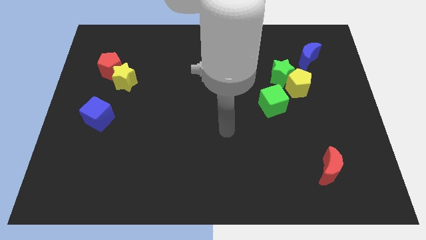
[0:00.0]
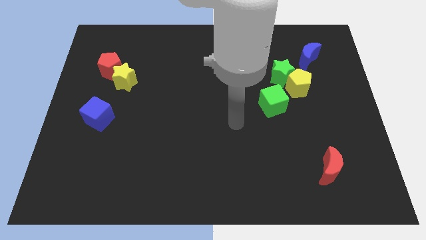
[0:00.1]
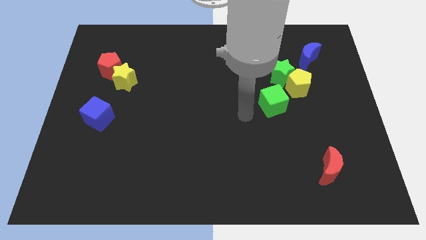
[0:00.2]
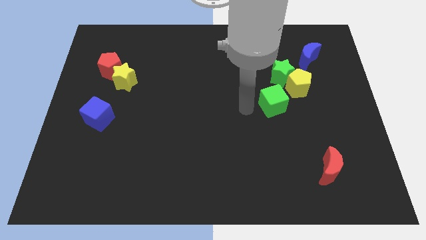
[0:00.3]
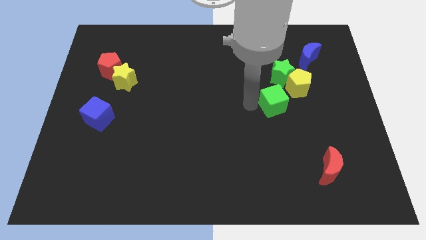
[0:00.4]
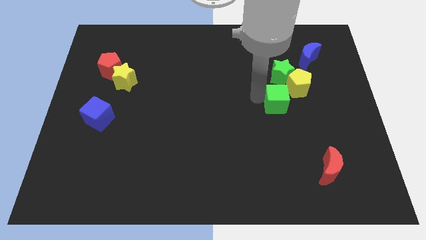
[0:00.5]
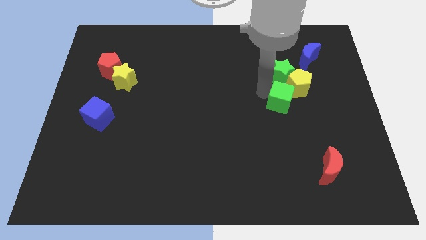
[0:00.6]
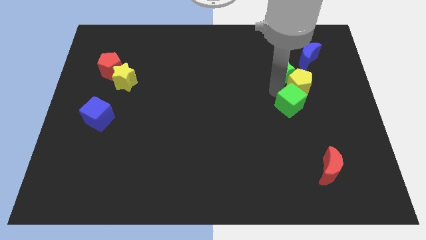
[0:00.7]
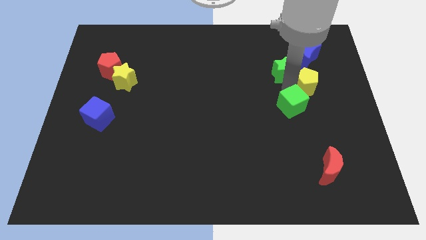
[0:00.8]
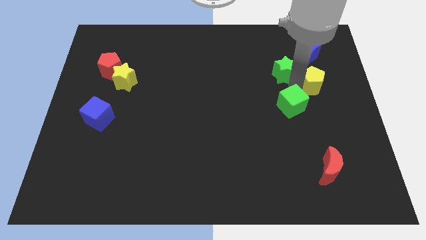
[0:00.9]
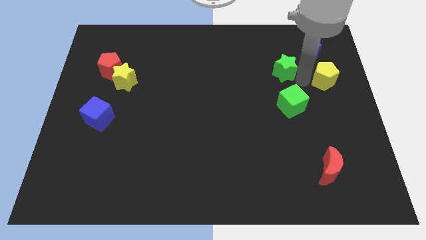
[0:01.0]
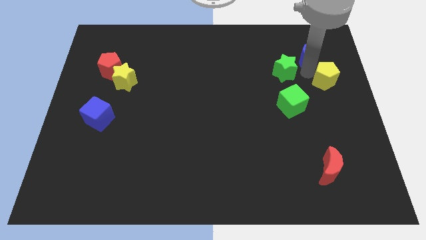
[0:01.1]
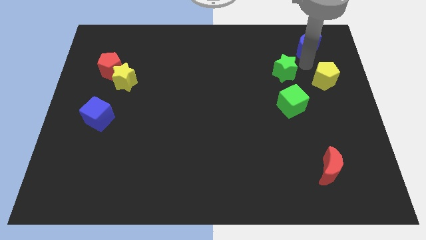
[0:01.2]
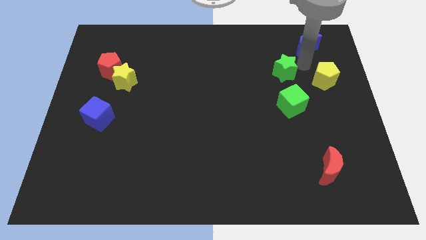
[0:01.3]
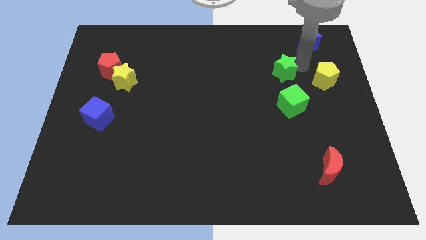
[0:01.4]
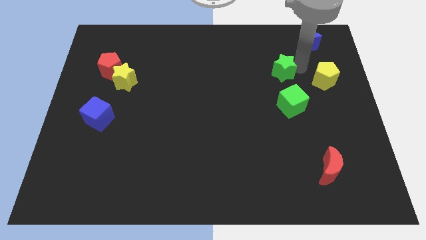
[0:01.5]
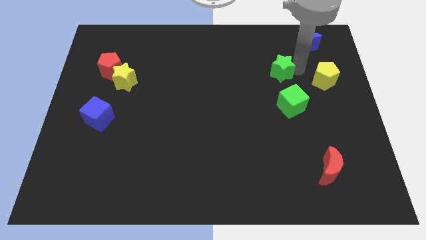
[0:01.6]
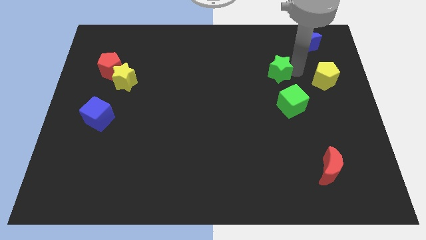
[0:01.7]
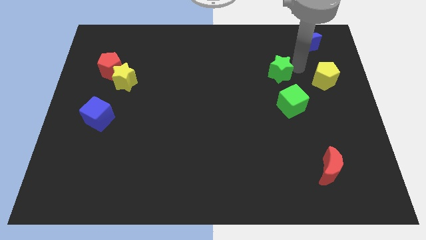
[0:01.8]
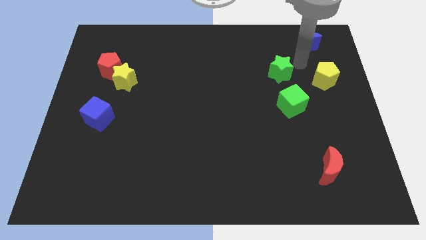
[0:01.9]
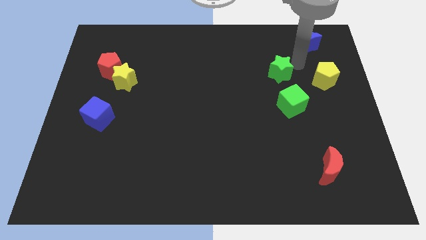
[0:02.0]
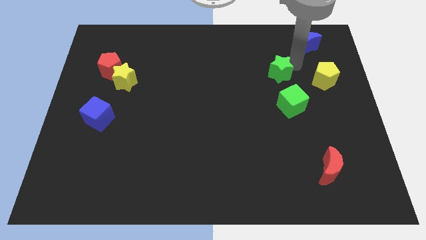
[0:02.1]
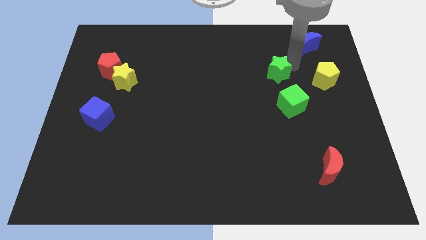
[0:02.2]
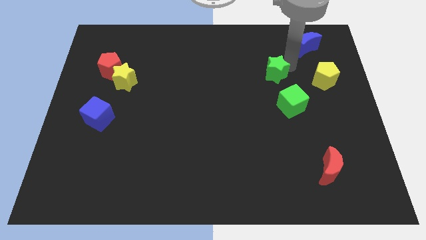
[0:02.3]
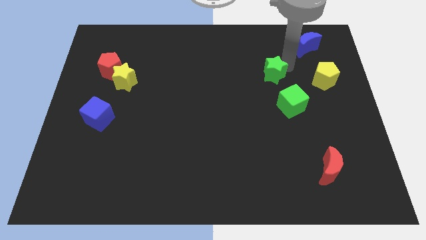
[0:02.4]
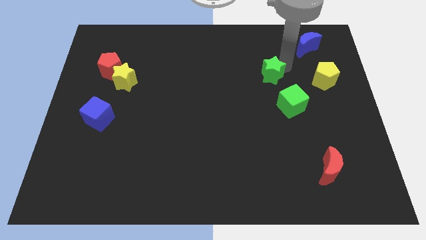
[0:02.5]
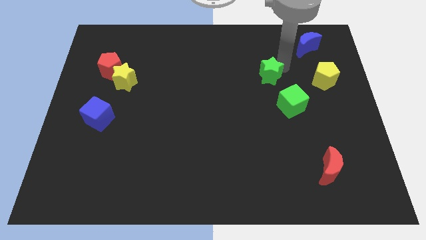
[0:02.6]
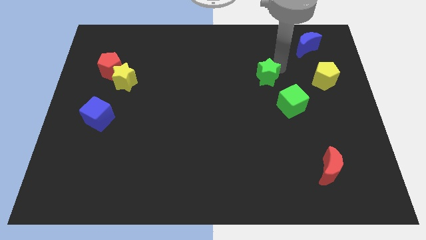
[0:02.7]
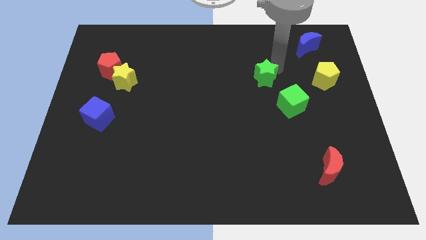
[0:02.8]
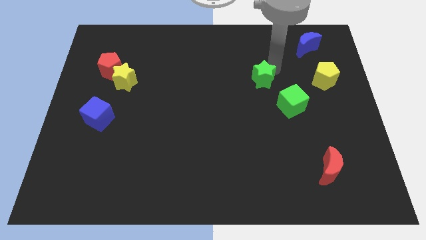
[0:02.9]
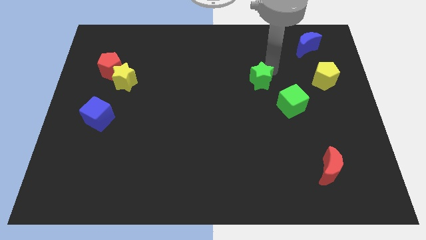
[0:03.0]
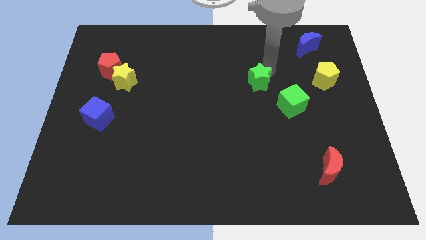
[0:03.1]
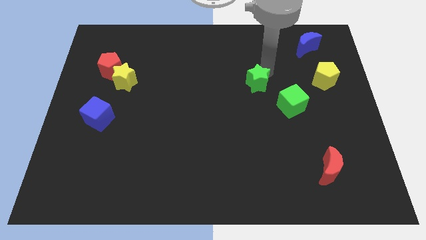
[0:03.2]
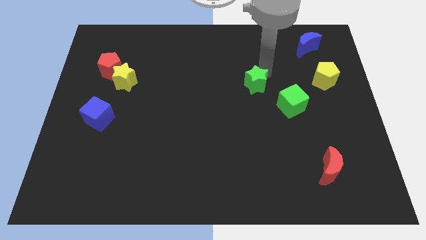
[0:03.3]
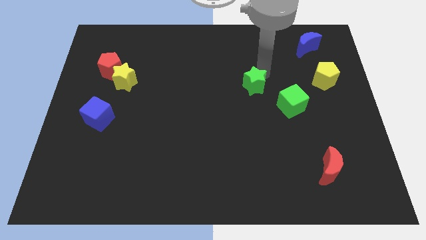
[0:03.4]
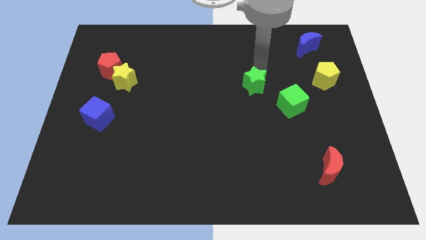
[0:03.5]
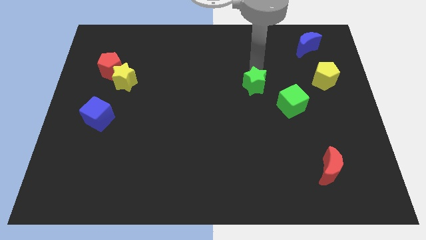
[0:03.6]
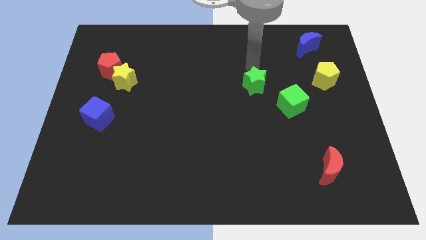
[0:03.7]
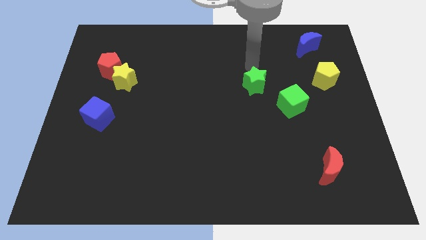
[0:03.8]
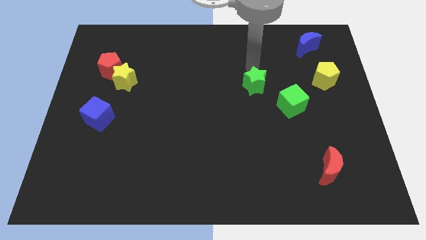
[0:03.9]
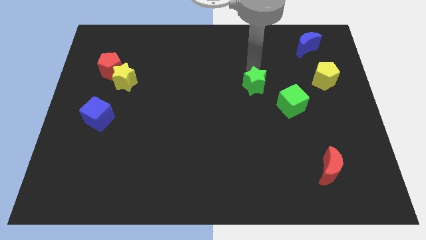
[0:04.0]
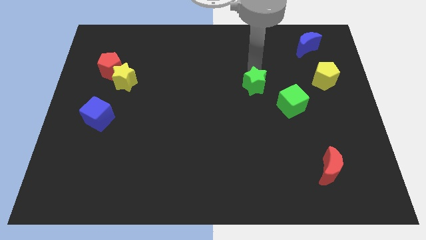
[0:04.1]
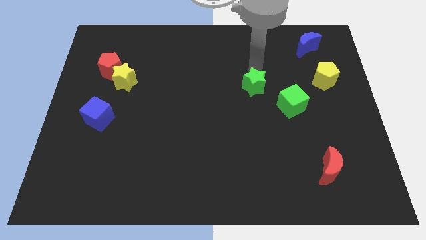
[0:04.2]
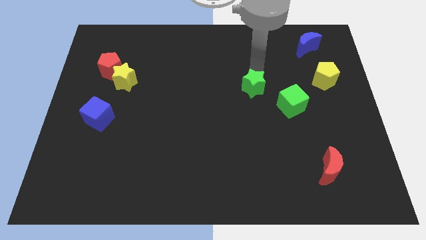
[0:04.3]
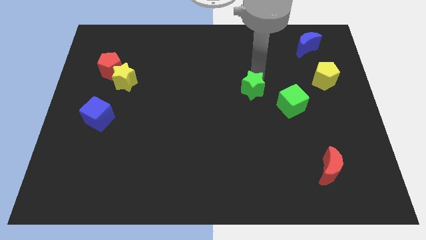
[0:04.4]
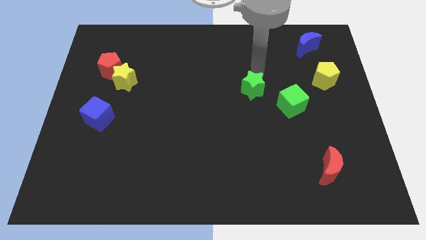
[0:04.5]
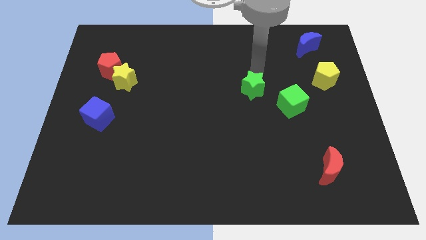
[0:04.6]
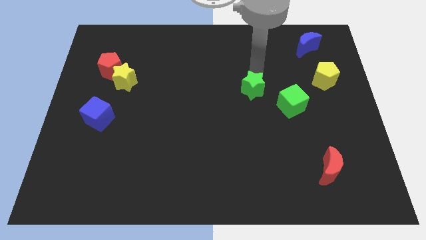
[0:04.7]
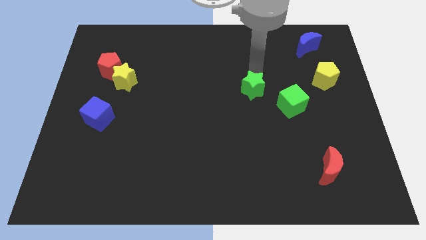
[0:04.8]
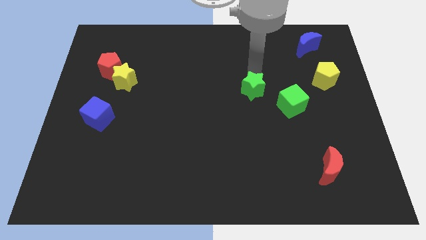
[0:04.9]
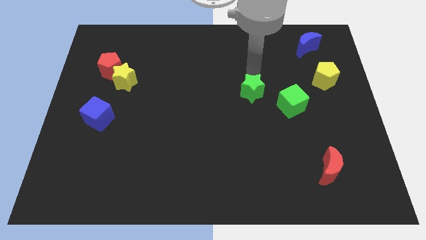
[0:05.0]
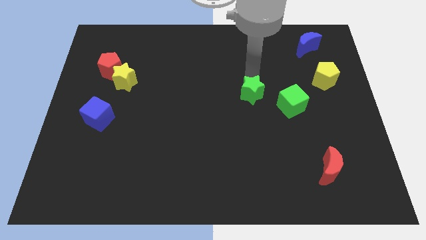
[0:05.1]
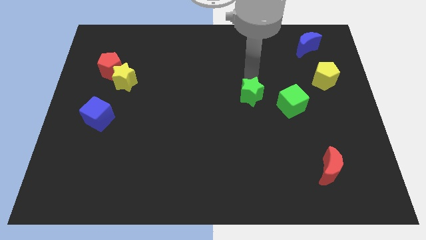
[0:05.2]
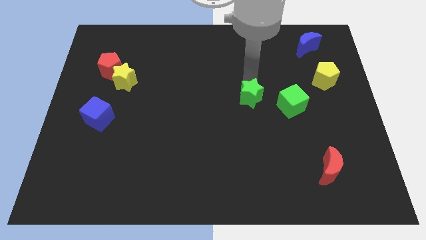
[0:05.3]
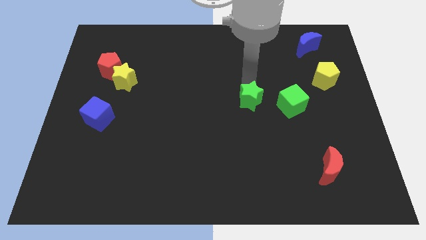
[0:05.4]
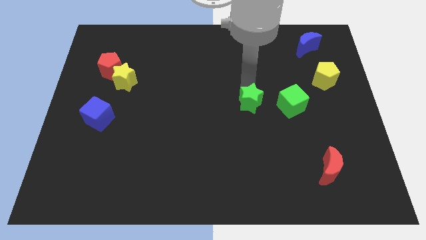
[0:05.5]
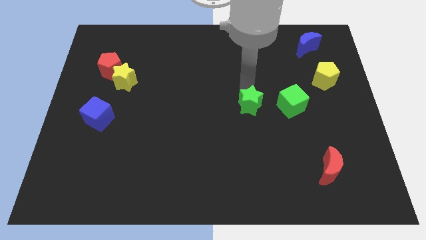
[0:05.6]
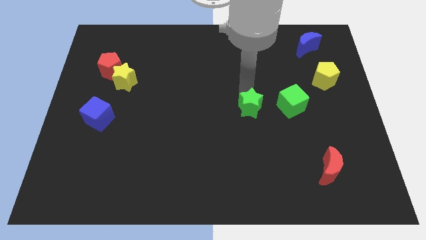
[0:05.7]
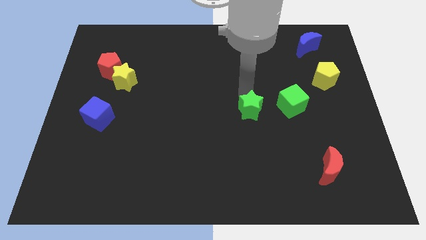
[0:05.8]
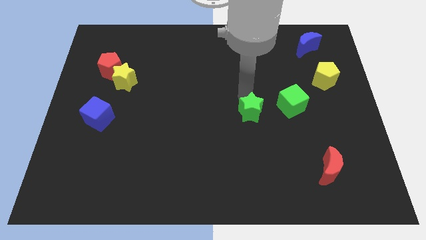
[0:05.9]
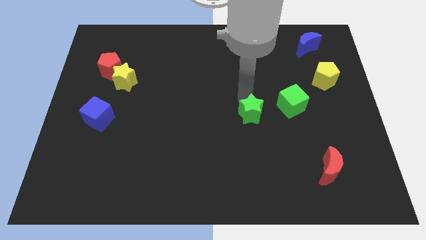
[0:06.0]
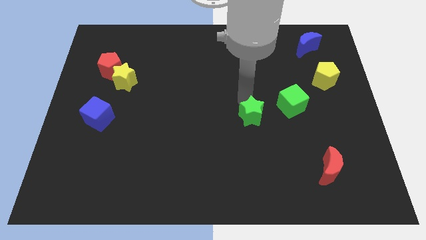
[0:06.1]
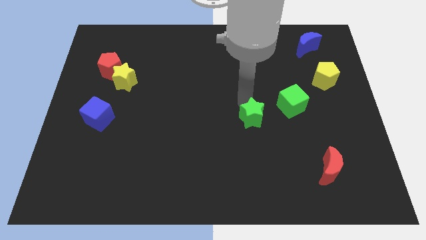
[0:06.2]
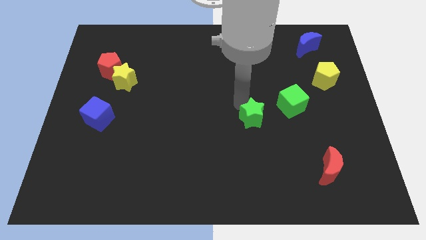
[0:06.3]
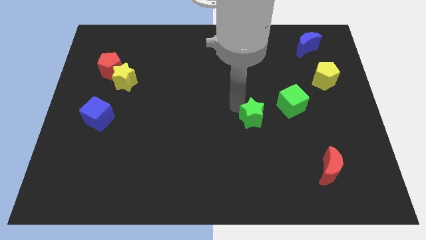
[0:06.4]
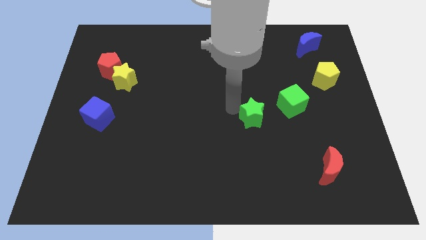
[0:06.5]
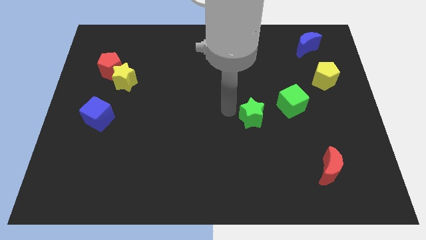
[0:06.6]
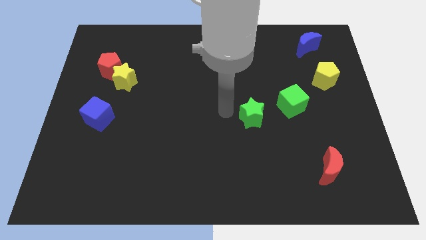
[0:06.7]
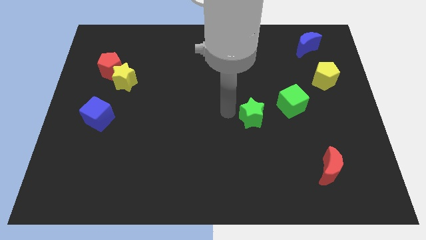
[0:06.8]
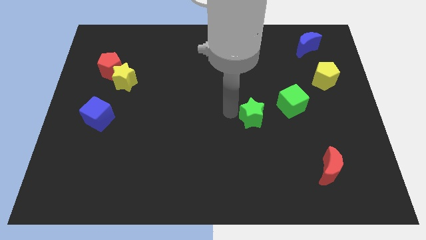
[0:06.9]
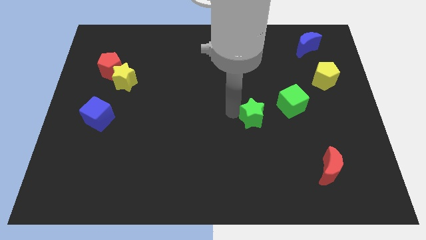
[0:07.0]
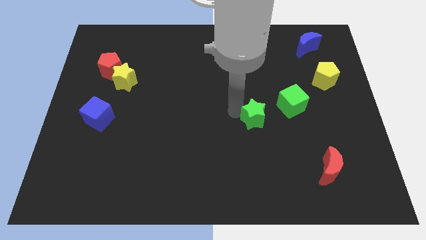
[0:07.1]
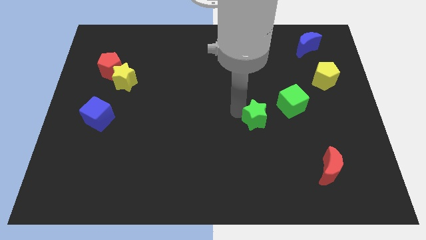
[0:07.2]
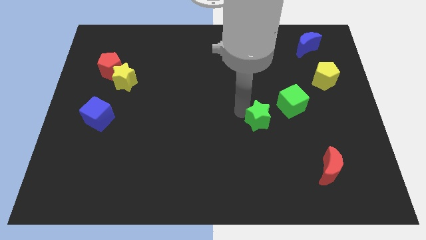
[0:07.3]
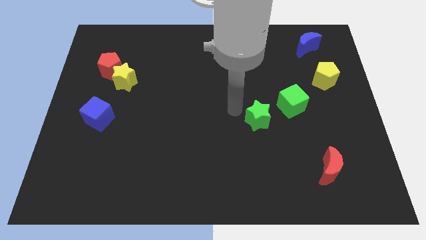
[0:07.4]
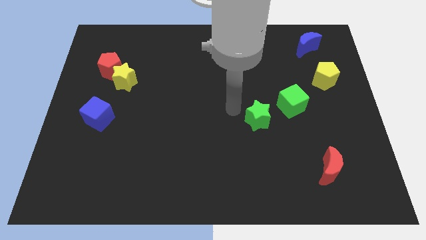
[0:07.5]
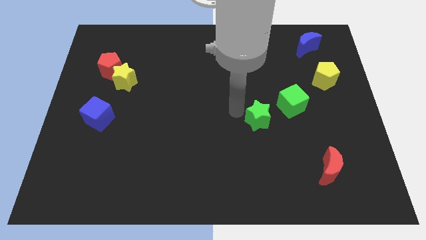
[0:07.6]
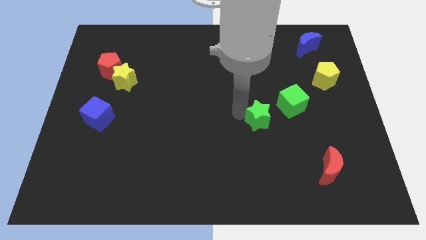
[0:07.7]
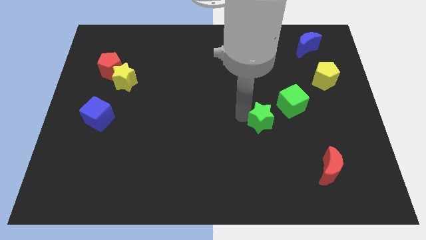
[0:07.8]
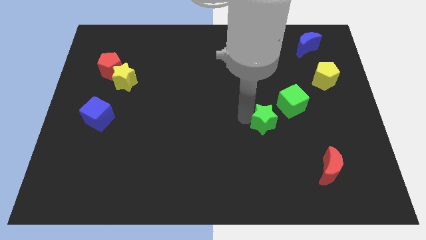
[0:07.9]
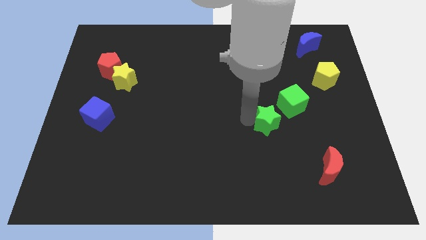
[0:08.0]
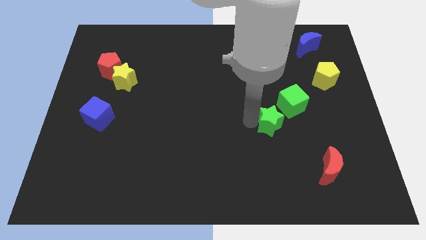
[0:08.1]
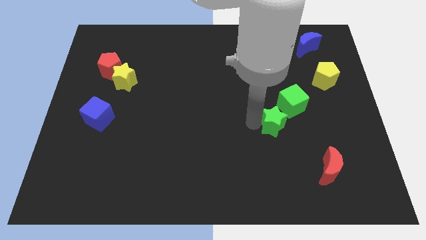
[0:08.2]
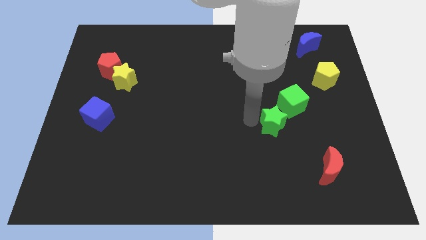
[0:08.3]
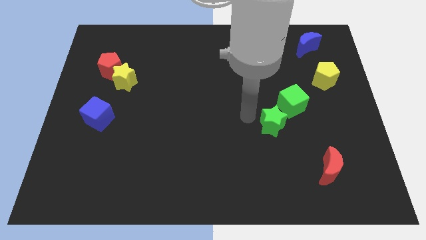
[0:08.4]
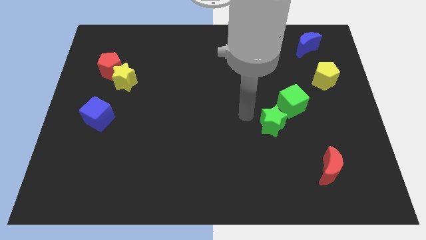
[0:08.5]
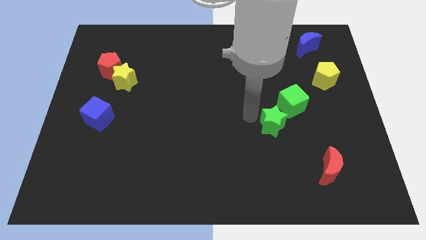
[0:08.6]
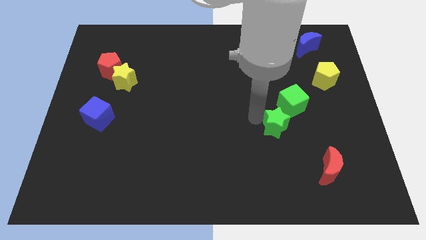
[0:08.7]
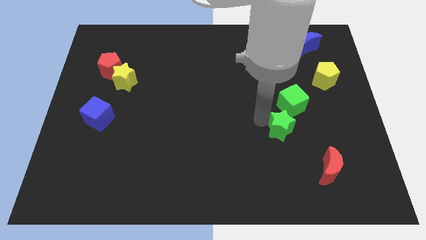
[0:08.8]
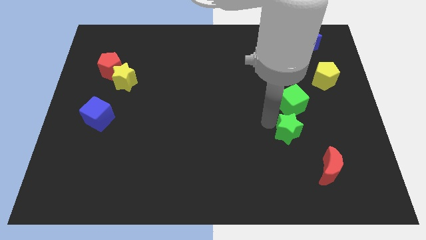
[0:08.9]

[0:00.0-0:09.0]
put the green star diagonally up and to the left of the red moon
